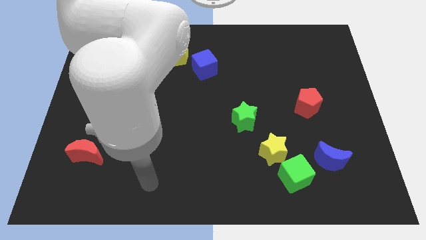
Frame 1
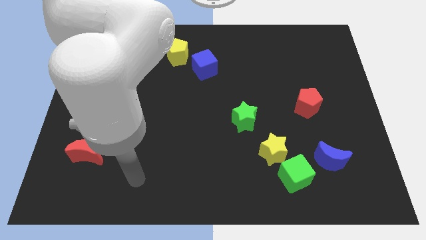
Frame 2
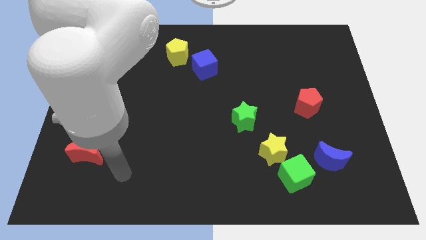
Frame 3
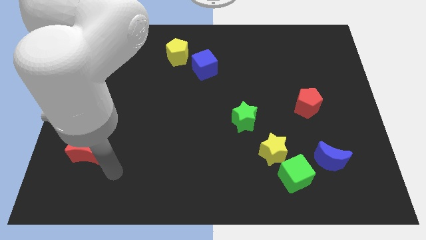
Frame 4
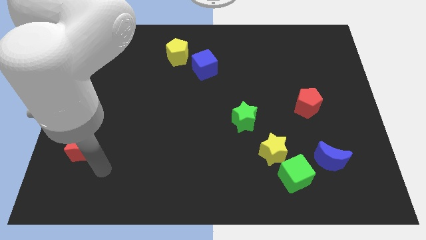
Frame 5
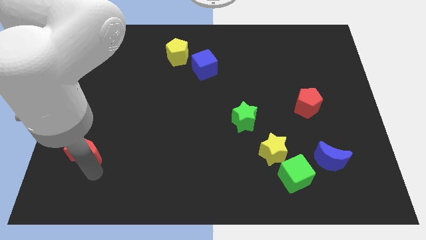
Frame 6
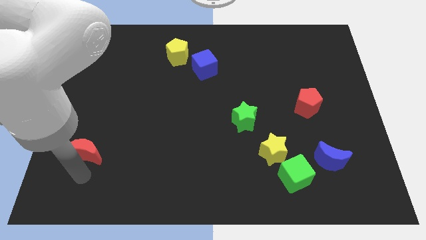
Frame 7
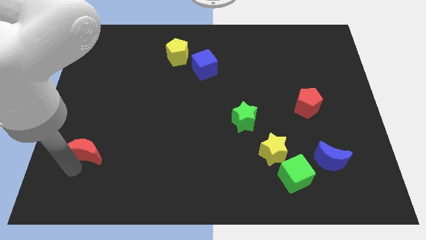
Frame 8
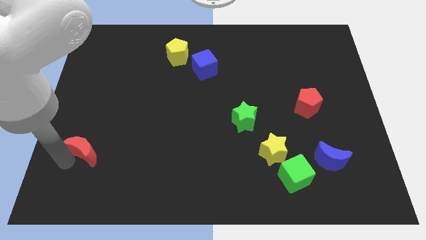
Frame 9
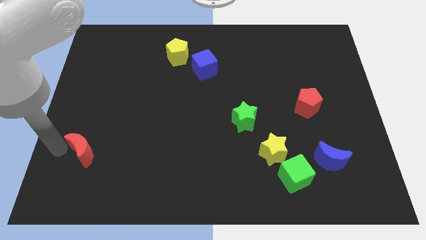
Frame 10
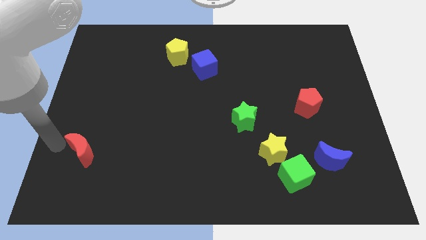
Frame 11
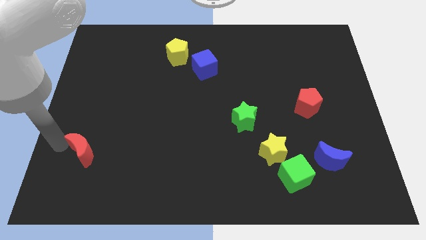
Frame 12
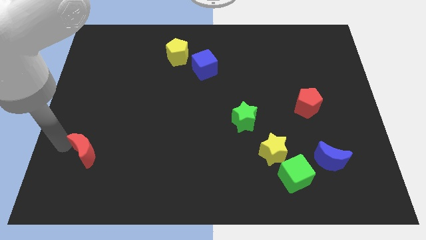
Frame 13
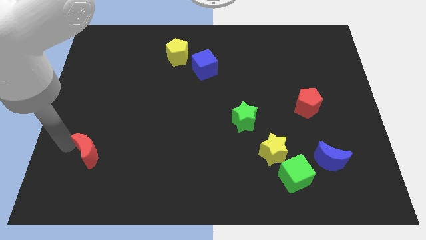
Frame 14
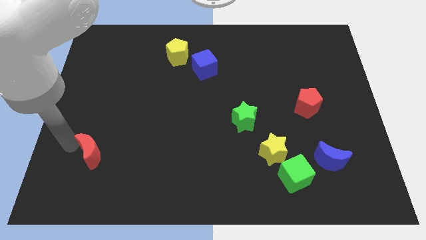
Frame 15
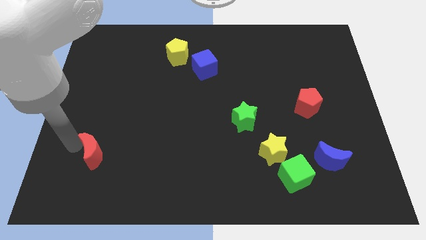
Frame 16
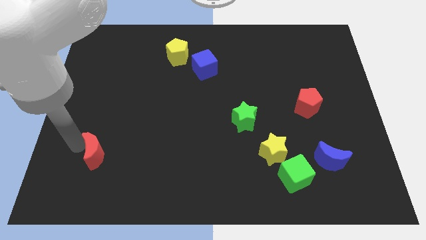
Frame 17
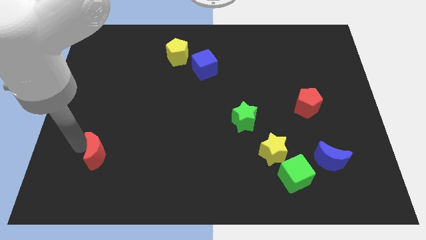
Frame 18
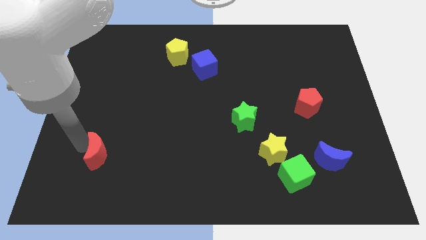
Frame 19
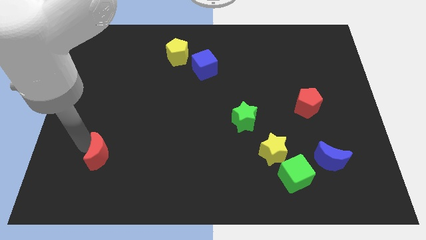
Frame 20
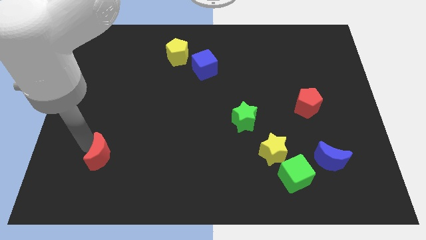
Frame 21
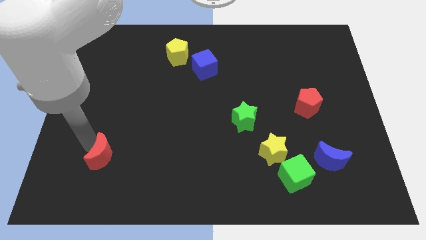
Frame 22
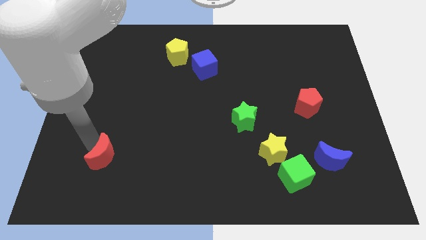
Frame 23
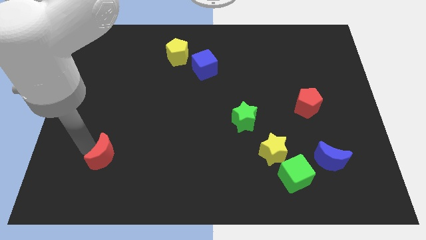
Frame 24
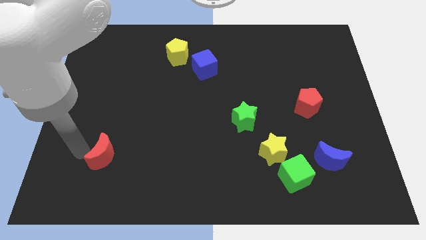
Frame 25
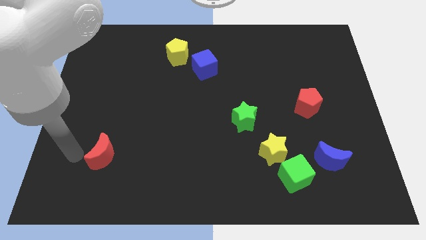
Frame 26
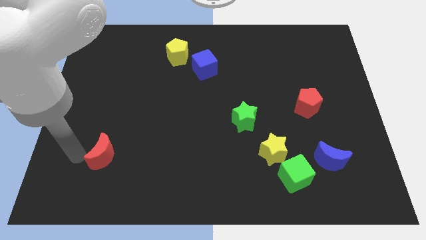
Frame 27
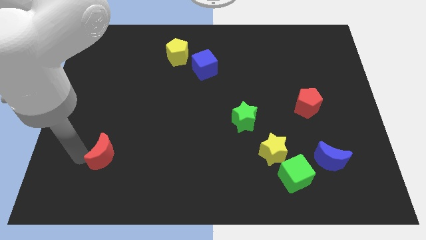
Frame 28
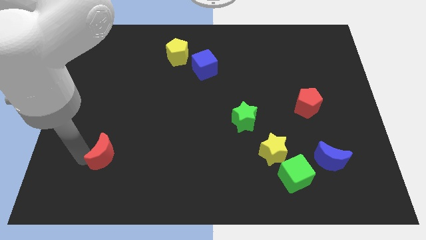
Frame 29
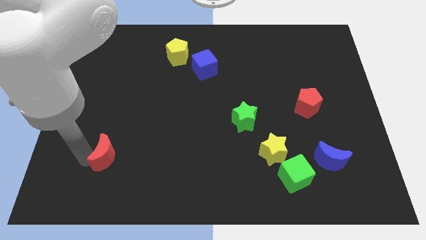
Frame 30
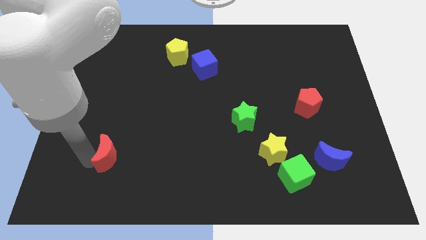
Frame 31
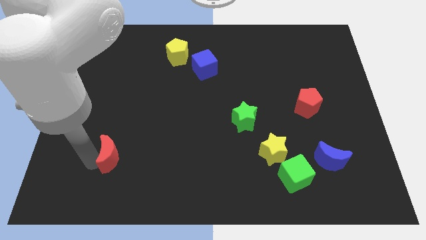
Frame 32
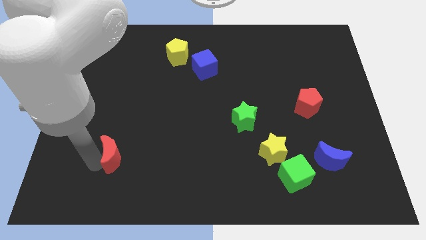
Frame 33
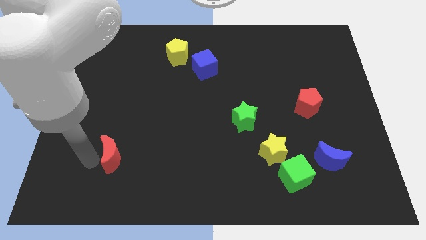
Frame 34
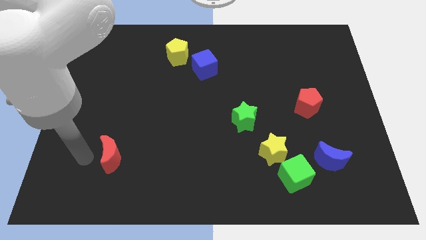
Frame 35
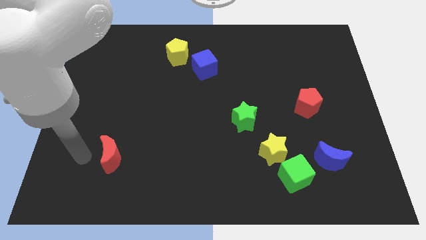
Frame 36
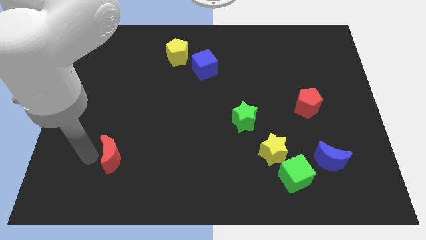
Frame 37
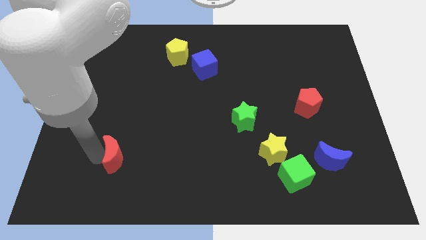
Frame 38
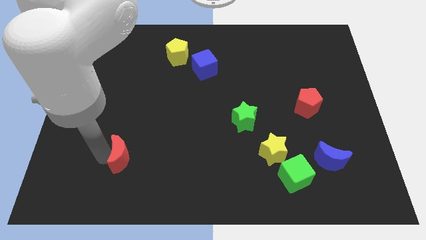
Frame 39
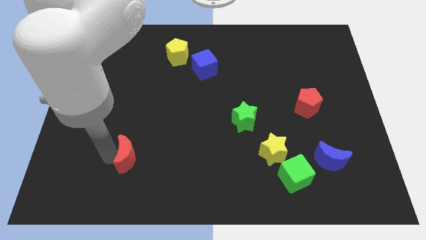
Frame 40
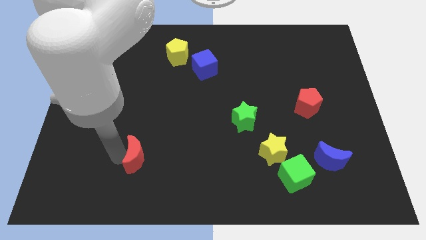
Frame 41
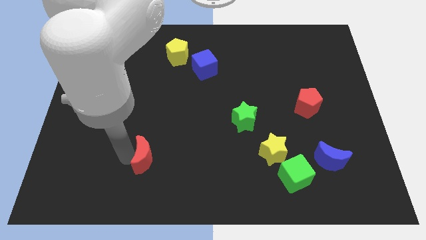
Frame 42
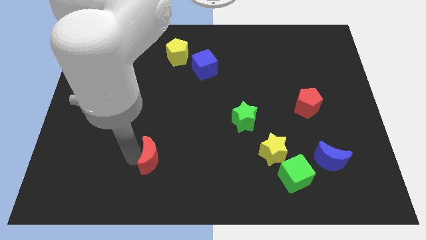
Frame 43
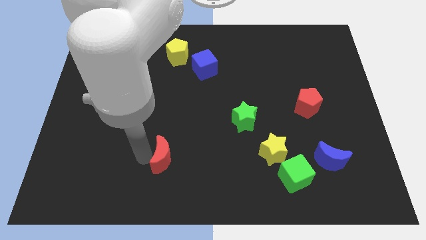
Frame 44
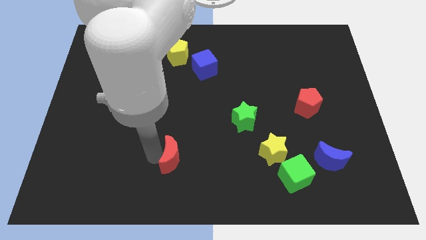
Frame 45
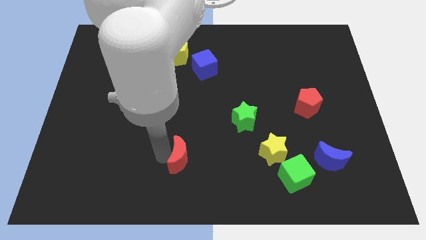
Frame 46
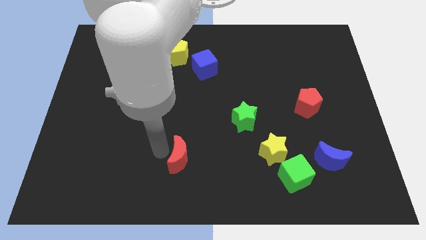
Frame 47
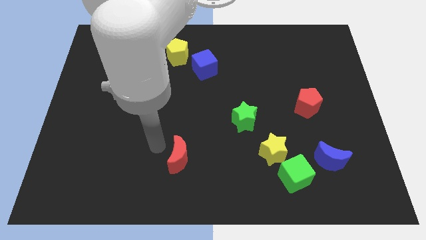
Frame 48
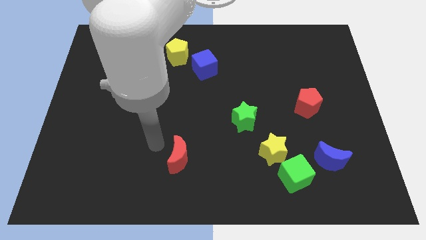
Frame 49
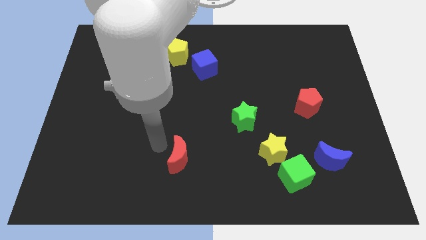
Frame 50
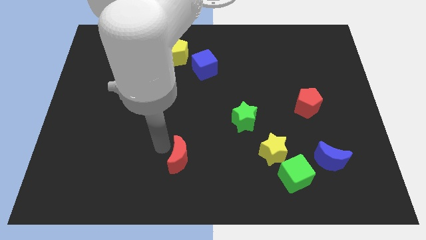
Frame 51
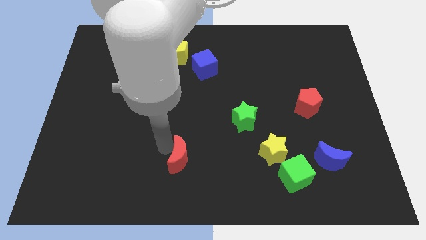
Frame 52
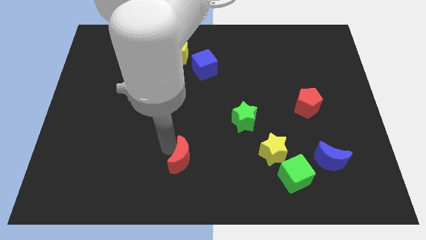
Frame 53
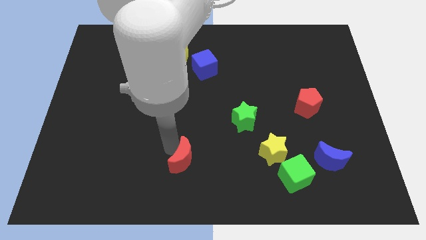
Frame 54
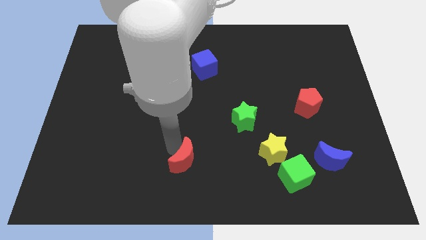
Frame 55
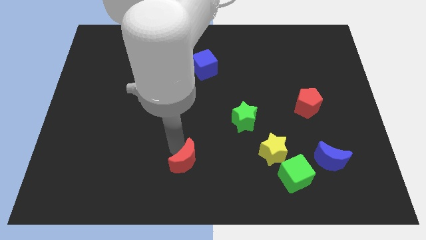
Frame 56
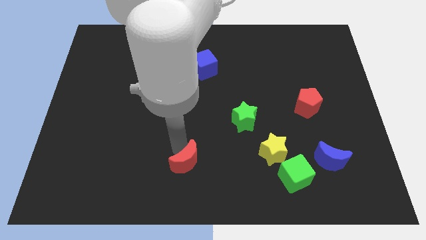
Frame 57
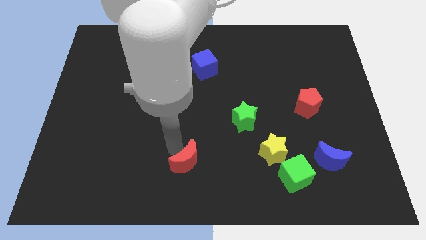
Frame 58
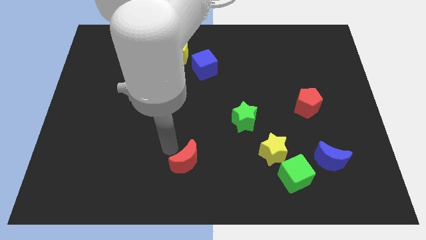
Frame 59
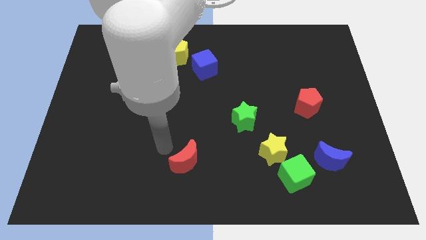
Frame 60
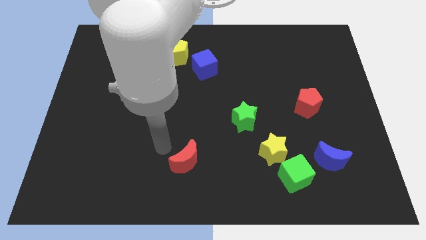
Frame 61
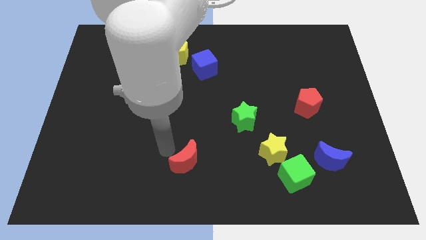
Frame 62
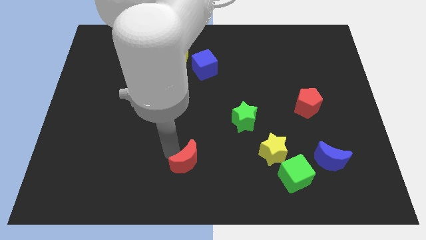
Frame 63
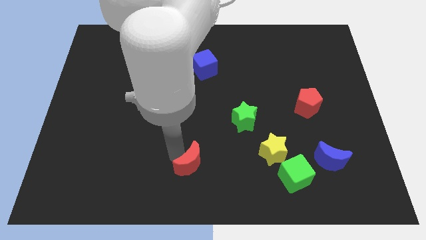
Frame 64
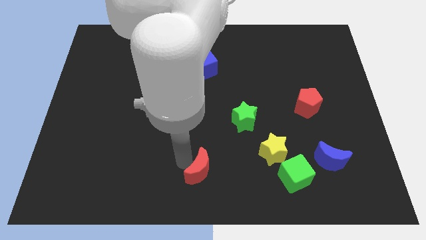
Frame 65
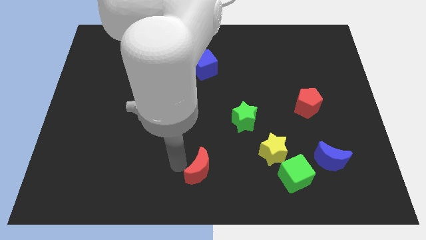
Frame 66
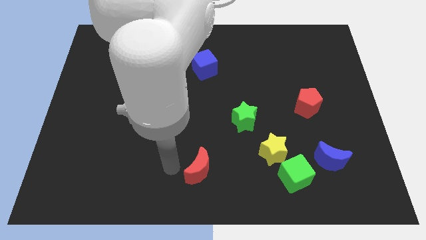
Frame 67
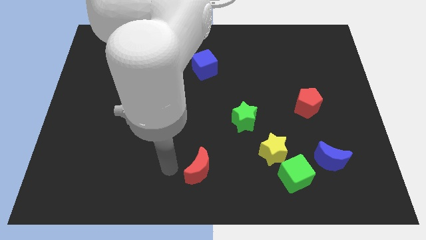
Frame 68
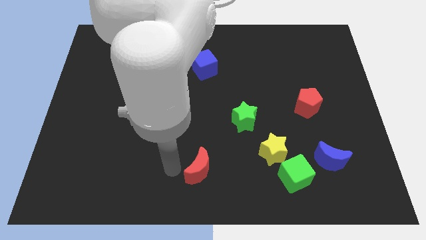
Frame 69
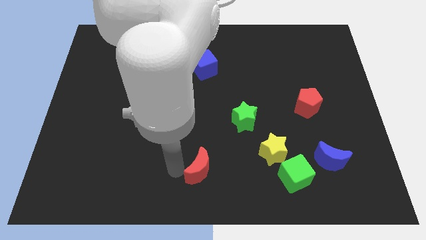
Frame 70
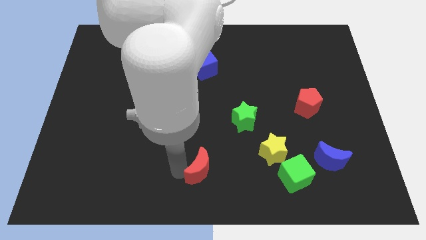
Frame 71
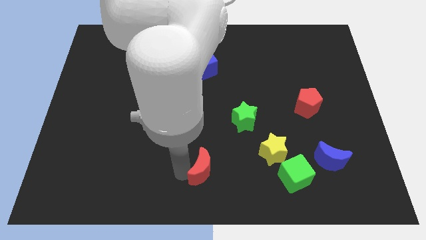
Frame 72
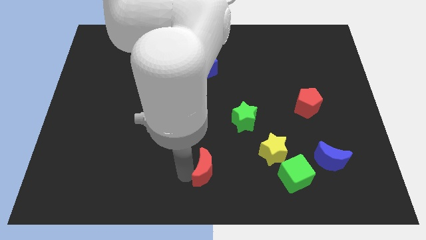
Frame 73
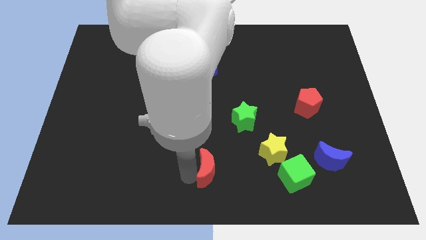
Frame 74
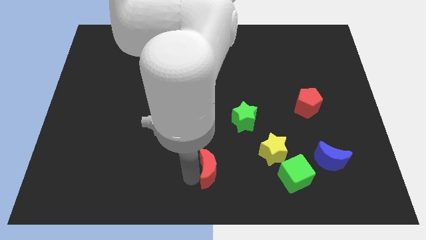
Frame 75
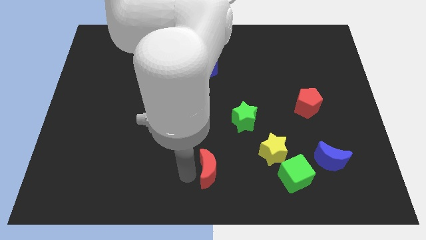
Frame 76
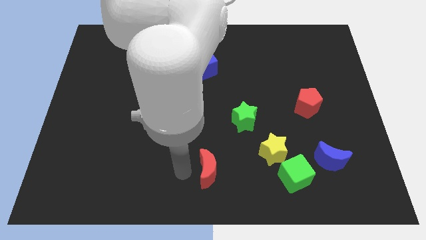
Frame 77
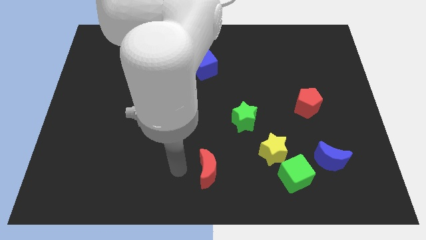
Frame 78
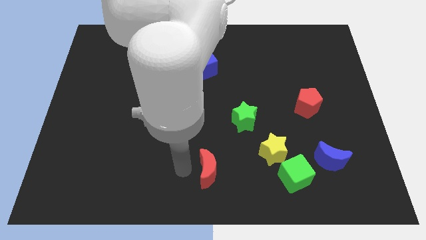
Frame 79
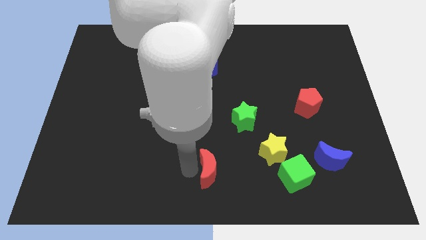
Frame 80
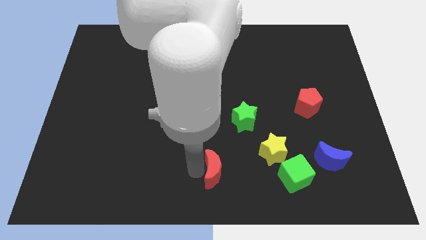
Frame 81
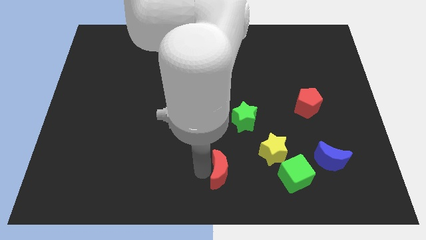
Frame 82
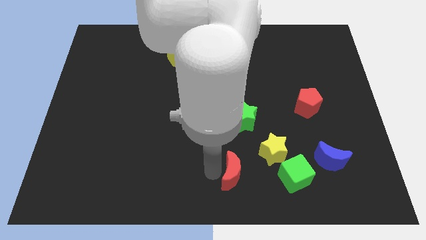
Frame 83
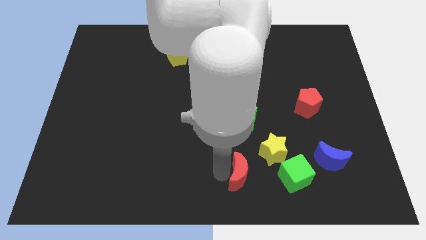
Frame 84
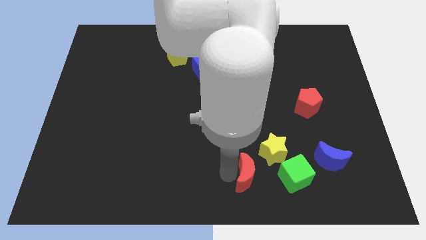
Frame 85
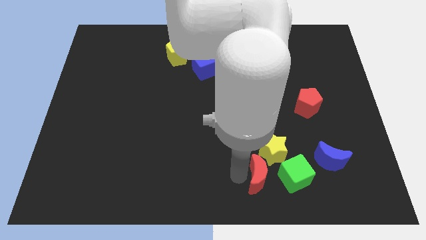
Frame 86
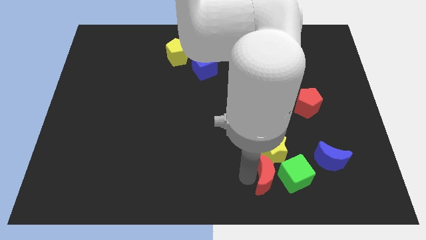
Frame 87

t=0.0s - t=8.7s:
put the red moon next to the green cube
